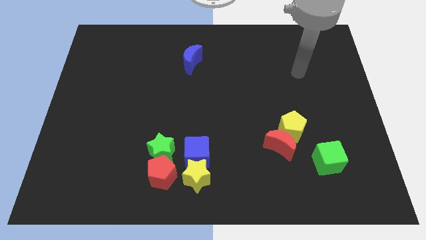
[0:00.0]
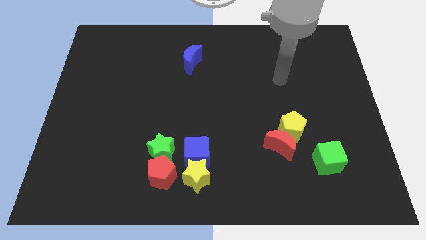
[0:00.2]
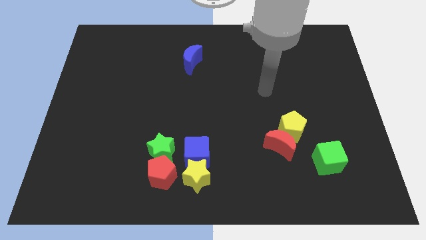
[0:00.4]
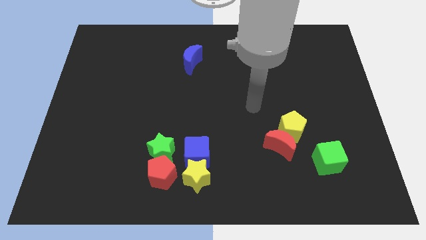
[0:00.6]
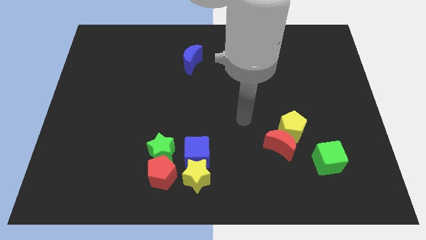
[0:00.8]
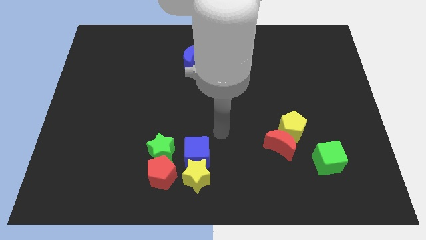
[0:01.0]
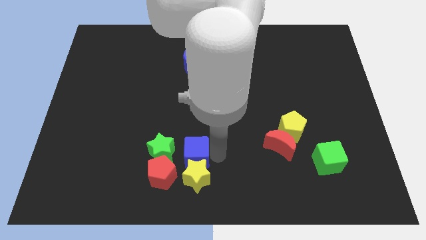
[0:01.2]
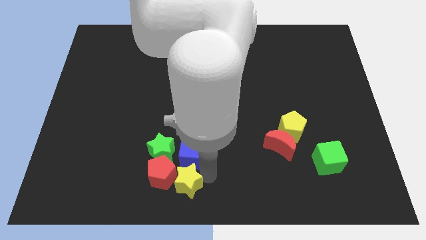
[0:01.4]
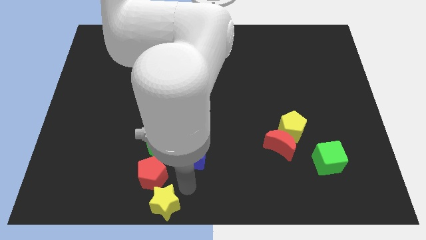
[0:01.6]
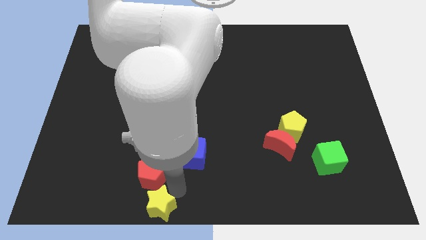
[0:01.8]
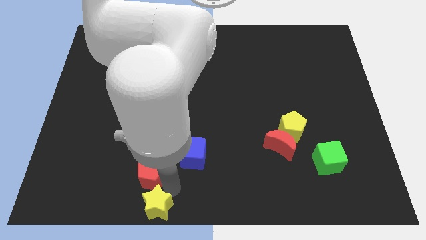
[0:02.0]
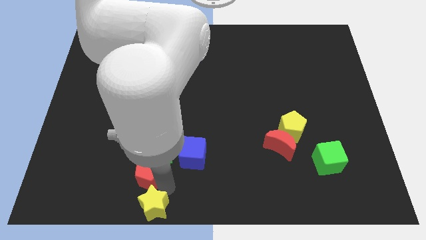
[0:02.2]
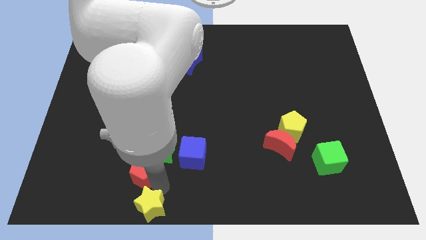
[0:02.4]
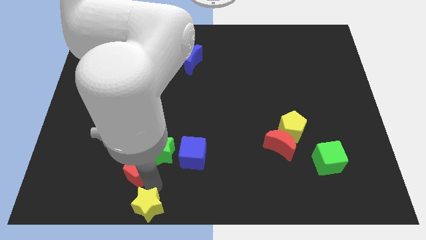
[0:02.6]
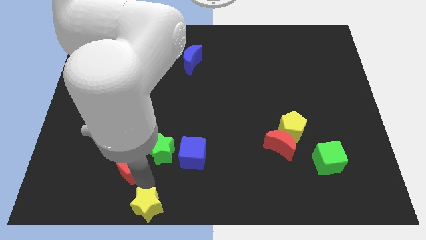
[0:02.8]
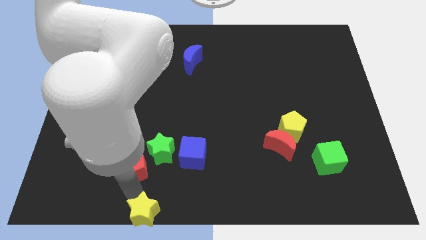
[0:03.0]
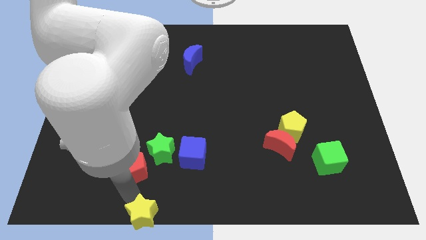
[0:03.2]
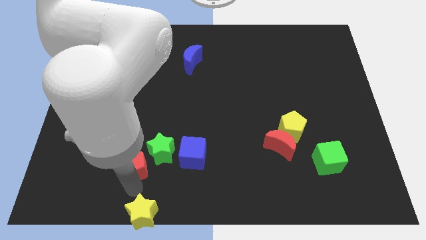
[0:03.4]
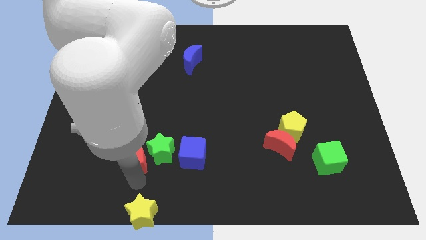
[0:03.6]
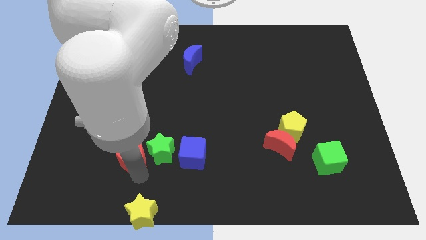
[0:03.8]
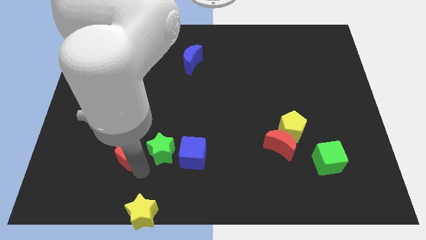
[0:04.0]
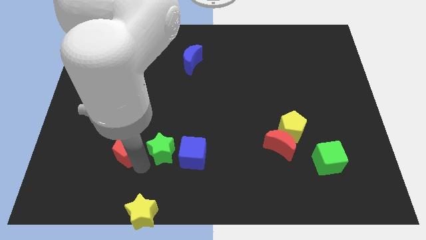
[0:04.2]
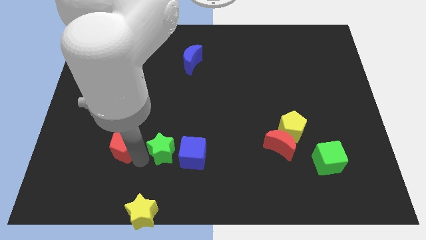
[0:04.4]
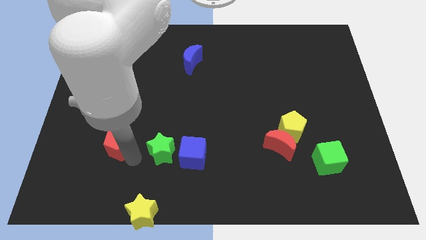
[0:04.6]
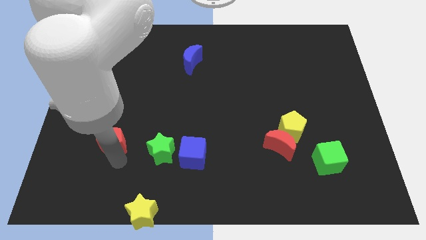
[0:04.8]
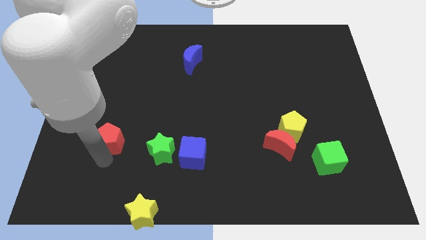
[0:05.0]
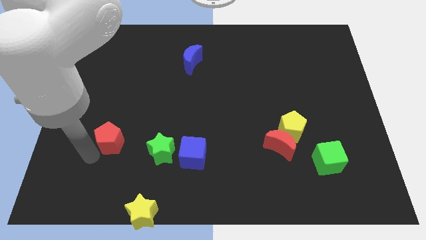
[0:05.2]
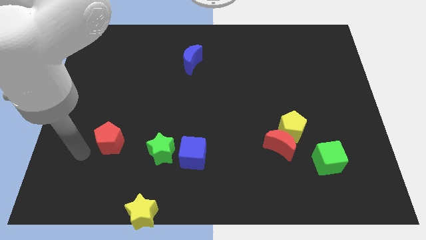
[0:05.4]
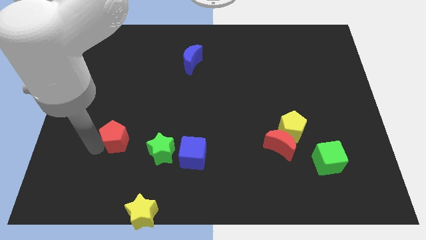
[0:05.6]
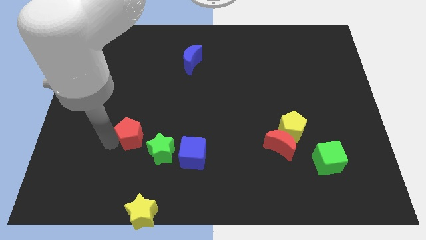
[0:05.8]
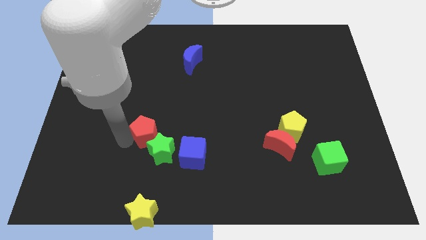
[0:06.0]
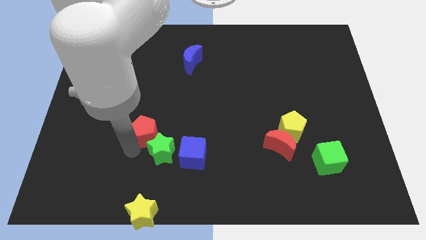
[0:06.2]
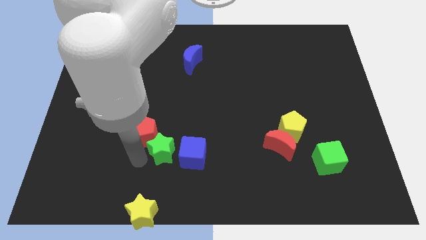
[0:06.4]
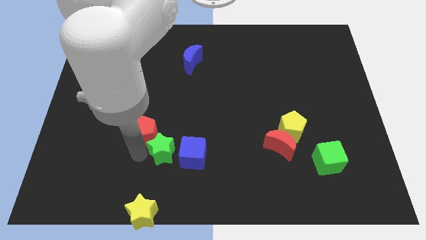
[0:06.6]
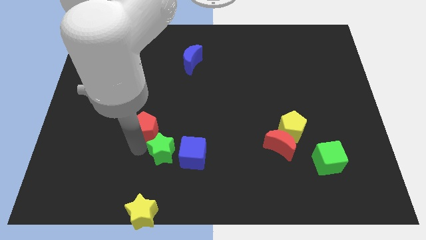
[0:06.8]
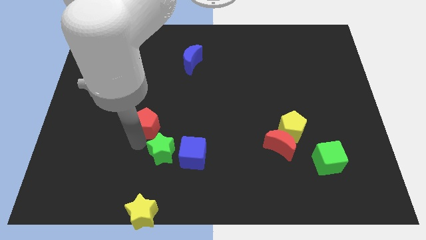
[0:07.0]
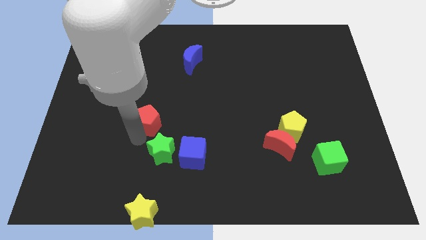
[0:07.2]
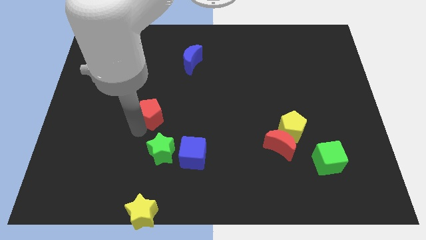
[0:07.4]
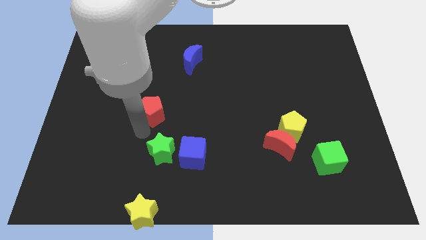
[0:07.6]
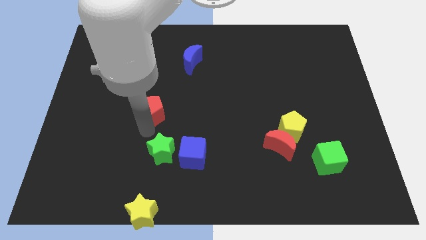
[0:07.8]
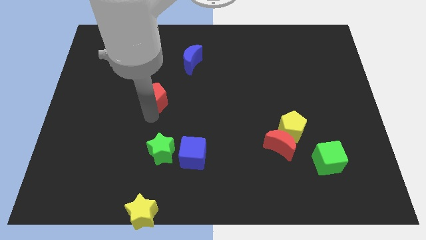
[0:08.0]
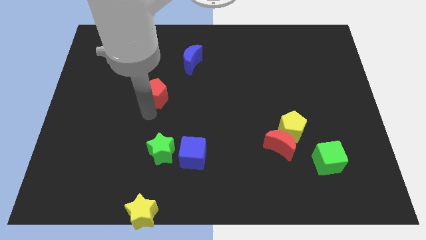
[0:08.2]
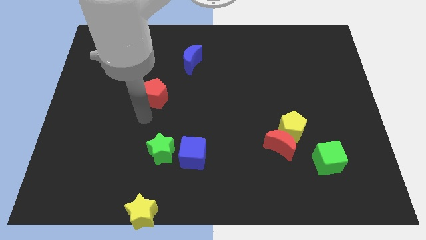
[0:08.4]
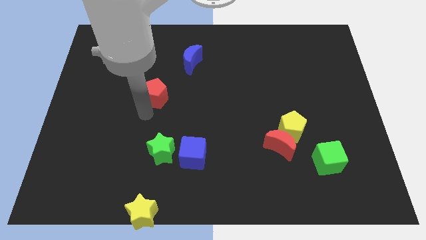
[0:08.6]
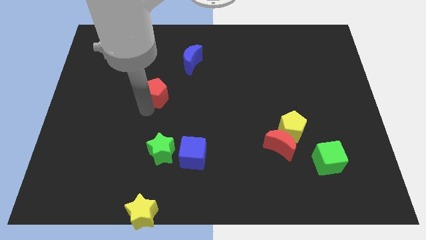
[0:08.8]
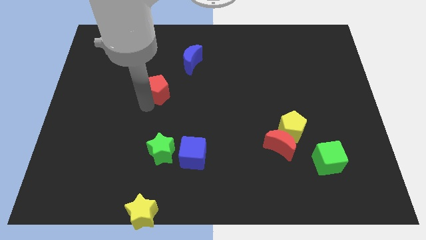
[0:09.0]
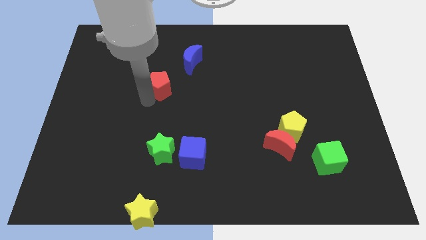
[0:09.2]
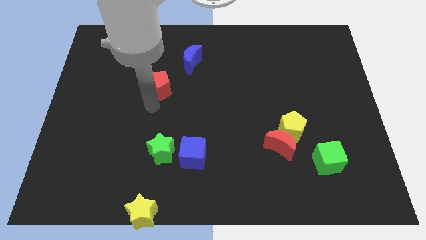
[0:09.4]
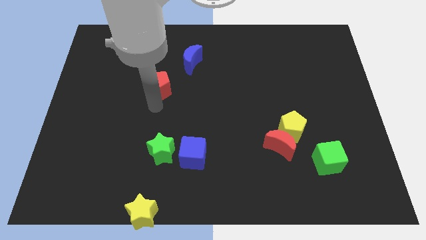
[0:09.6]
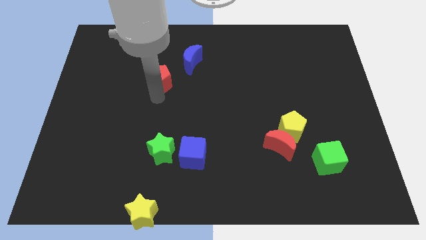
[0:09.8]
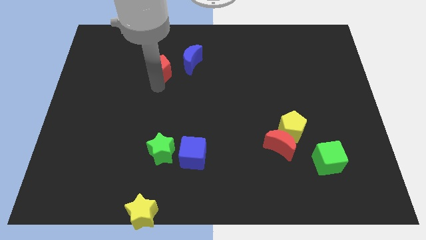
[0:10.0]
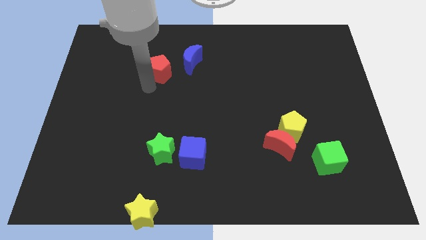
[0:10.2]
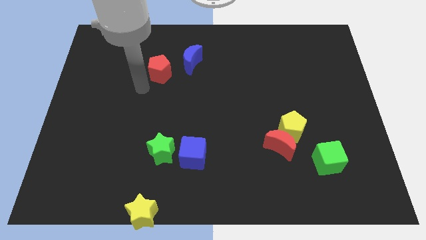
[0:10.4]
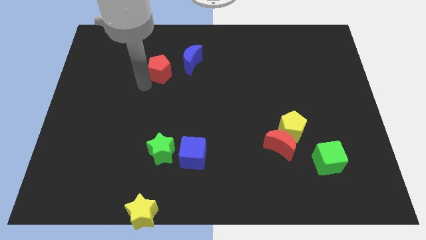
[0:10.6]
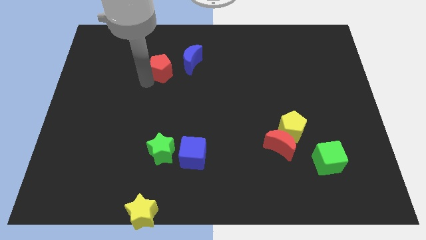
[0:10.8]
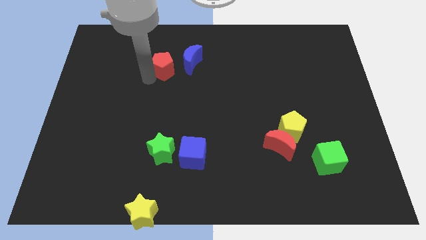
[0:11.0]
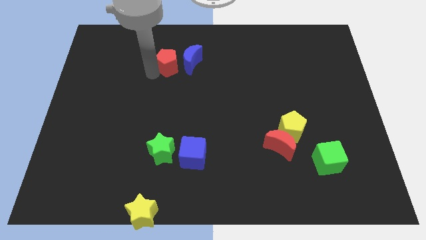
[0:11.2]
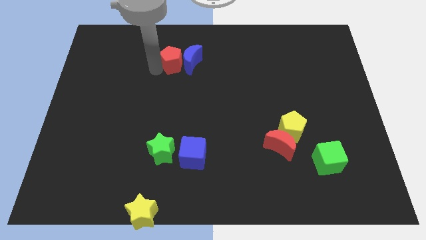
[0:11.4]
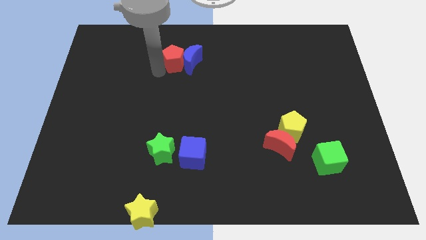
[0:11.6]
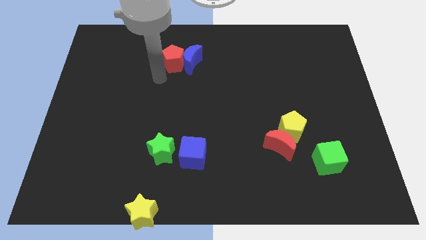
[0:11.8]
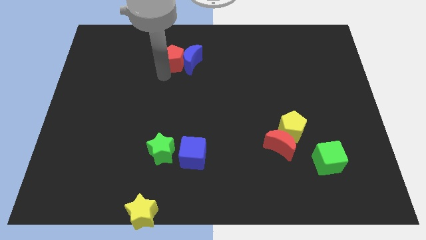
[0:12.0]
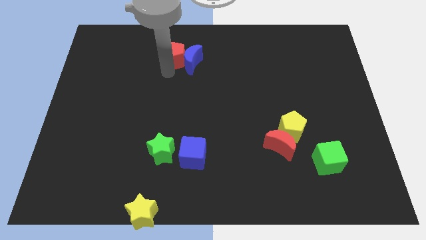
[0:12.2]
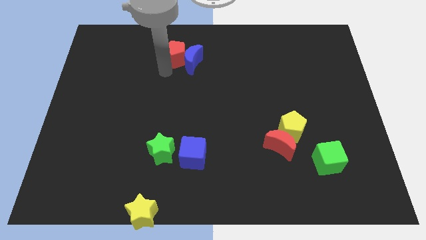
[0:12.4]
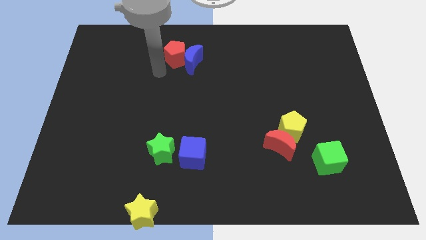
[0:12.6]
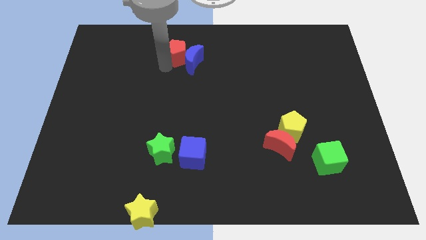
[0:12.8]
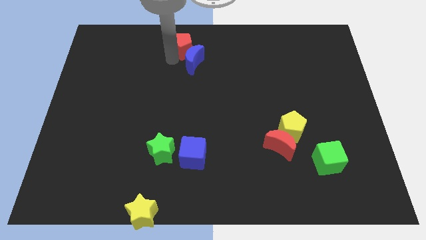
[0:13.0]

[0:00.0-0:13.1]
move the red pentagon to the top
